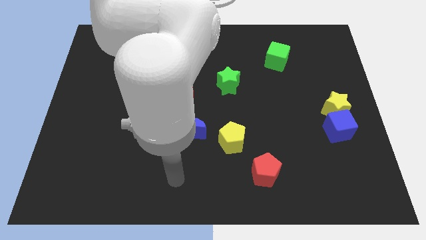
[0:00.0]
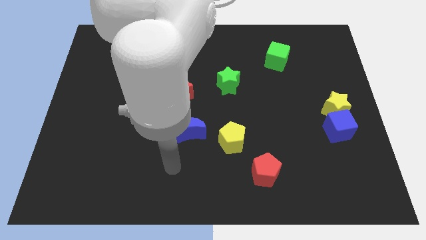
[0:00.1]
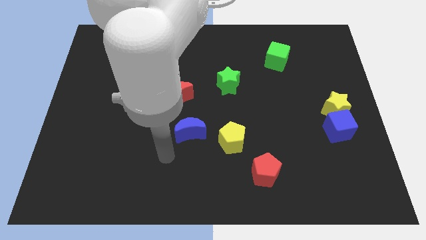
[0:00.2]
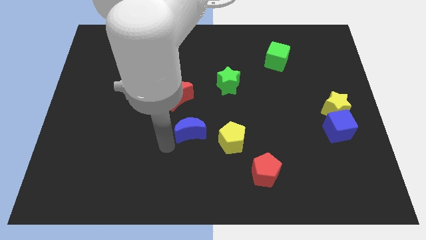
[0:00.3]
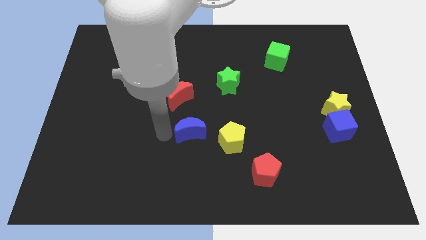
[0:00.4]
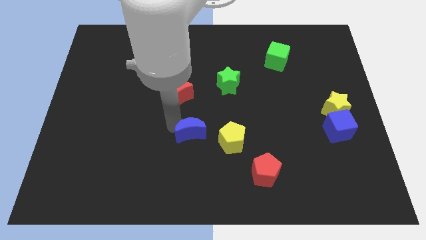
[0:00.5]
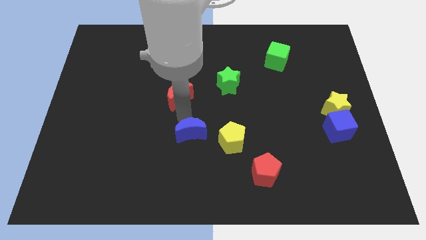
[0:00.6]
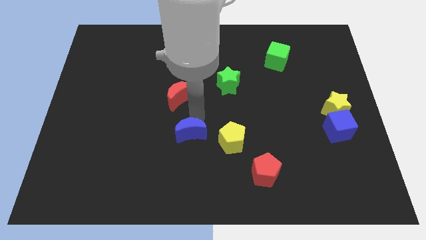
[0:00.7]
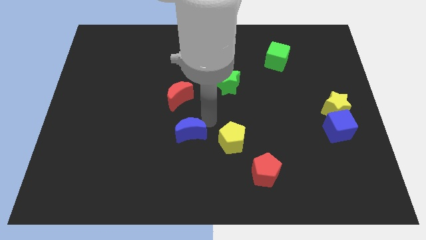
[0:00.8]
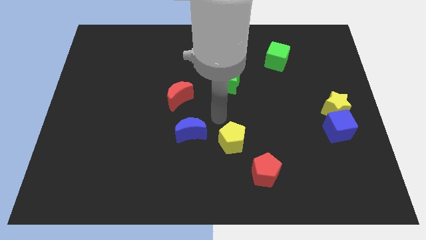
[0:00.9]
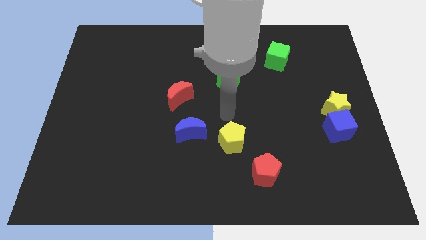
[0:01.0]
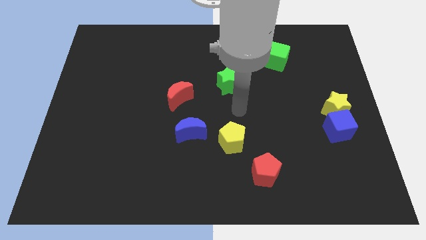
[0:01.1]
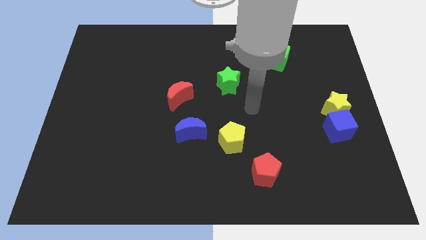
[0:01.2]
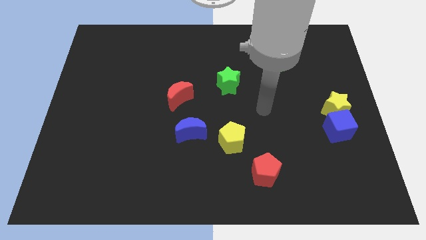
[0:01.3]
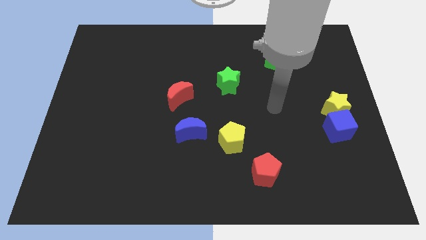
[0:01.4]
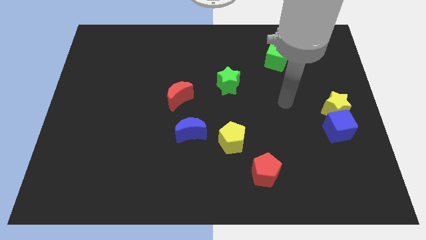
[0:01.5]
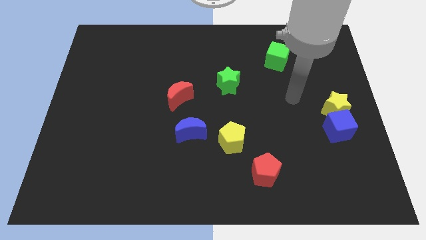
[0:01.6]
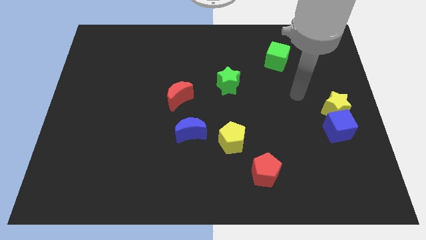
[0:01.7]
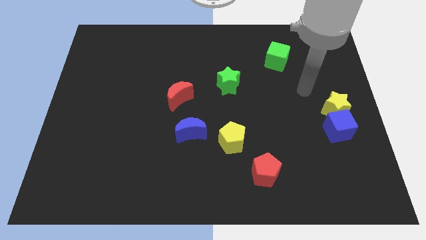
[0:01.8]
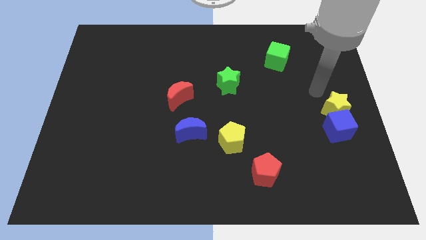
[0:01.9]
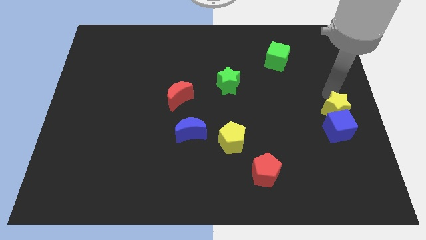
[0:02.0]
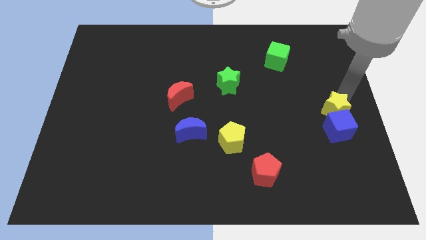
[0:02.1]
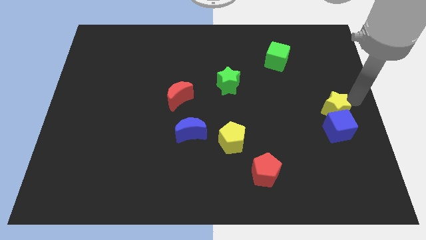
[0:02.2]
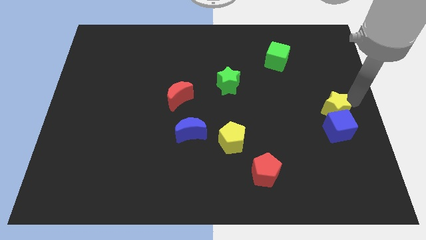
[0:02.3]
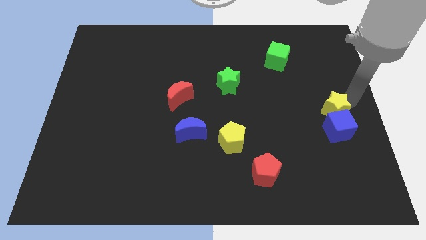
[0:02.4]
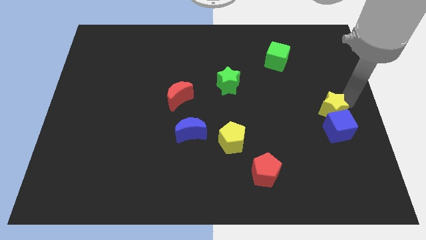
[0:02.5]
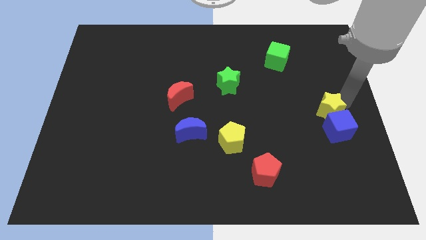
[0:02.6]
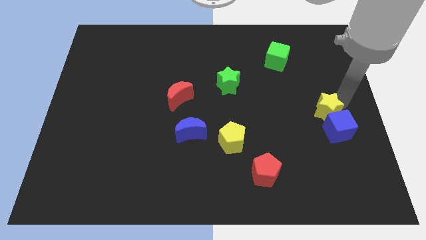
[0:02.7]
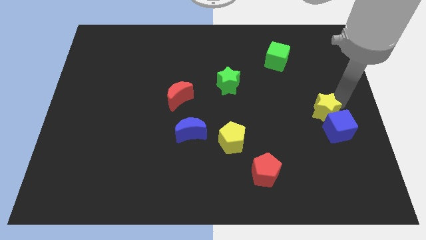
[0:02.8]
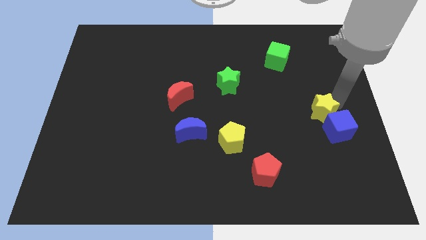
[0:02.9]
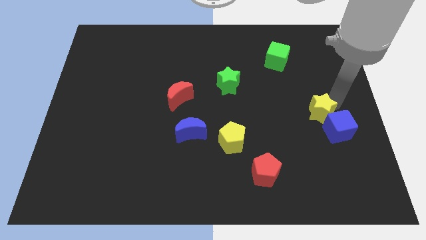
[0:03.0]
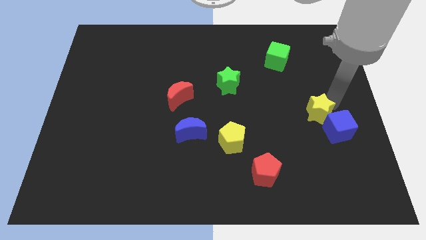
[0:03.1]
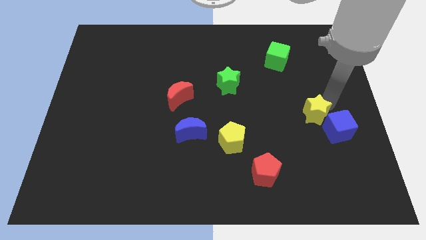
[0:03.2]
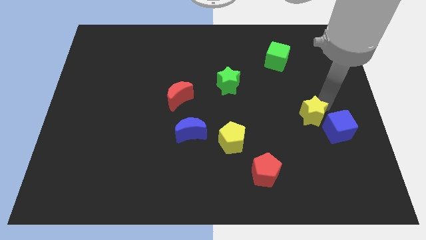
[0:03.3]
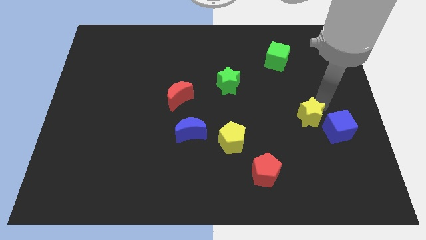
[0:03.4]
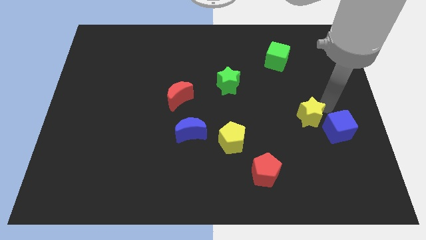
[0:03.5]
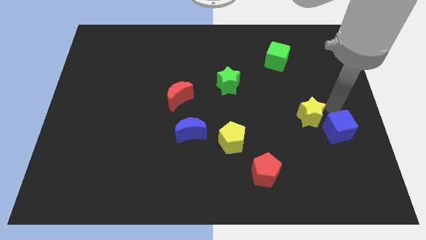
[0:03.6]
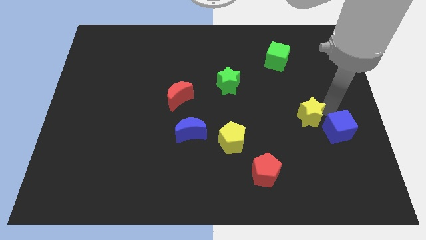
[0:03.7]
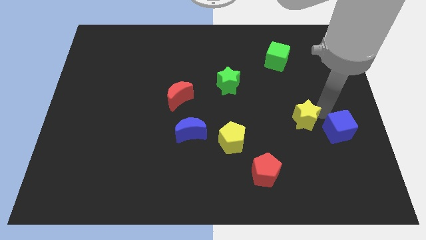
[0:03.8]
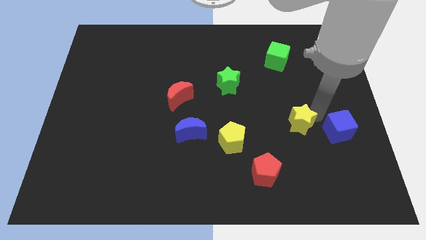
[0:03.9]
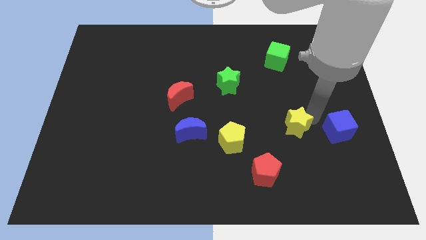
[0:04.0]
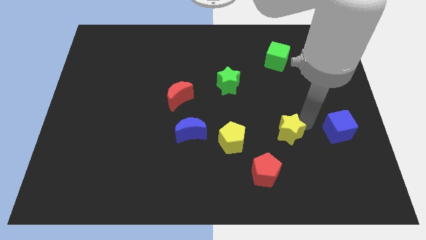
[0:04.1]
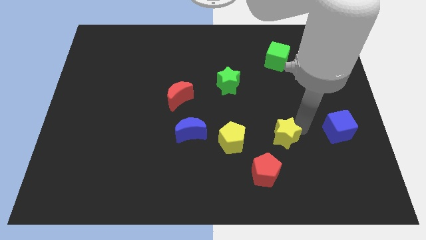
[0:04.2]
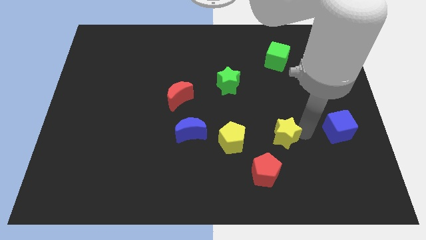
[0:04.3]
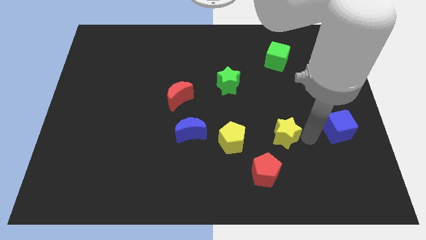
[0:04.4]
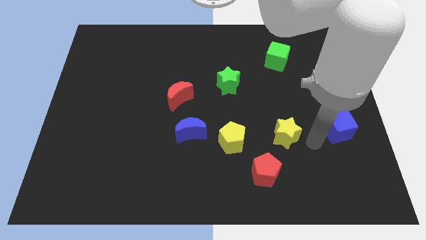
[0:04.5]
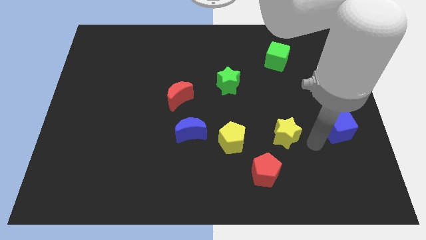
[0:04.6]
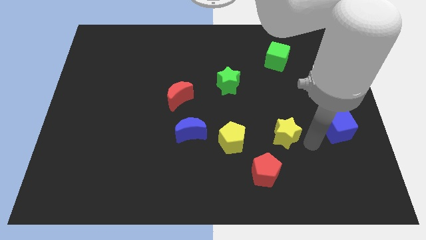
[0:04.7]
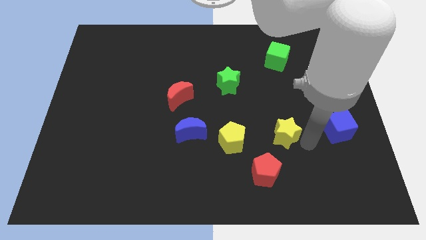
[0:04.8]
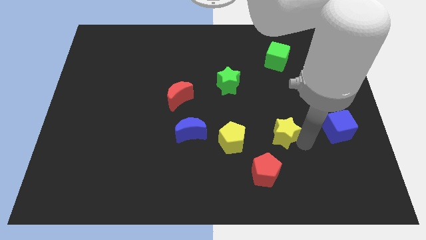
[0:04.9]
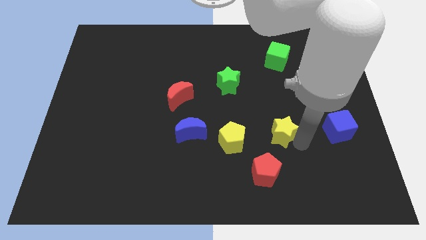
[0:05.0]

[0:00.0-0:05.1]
put the yellow star to the top of the red pentagon

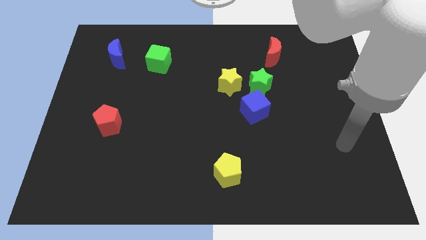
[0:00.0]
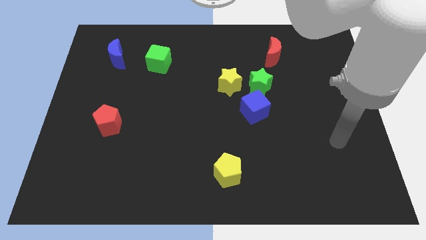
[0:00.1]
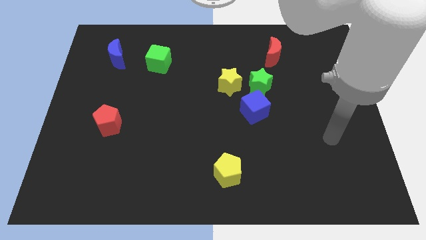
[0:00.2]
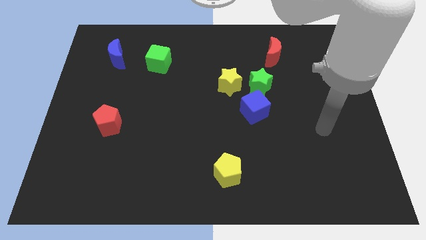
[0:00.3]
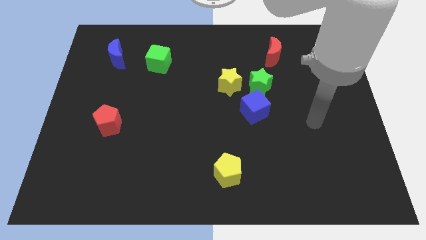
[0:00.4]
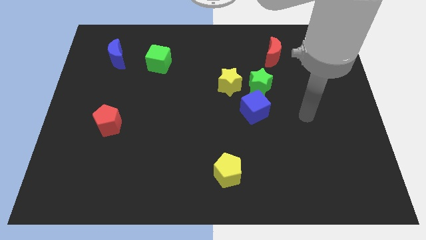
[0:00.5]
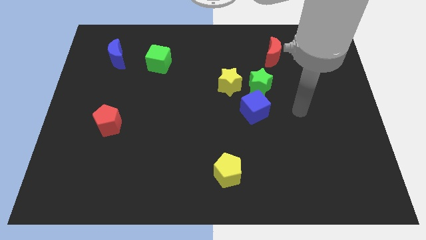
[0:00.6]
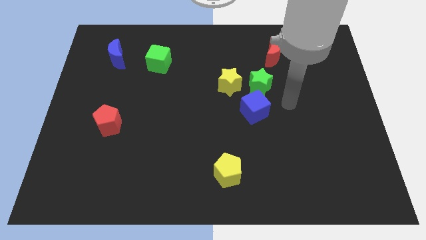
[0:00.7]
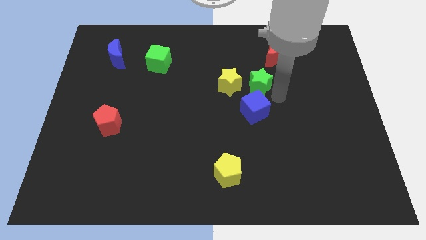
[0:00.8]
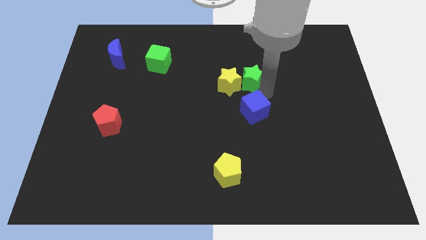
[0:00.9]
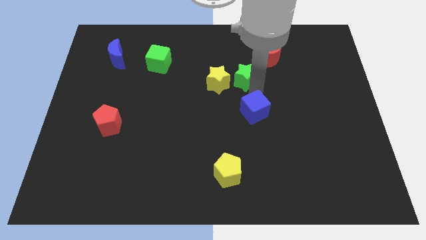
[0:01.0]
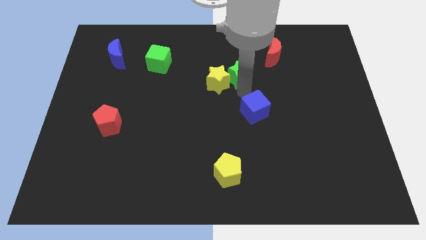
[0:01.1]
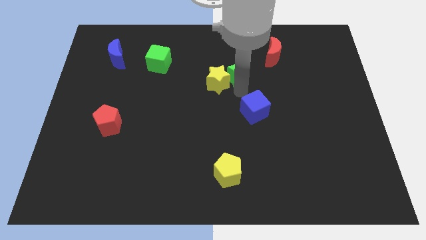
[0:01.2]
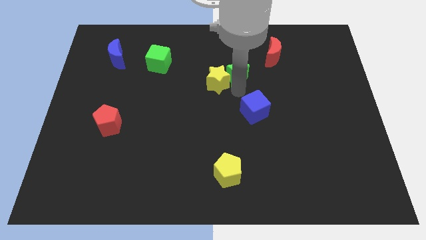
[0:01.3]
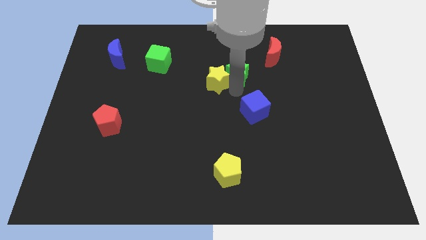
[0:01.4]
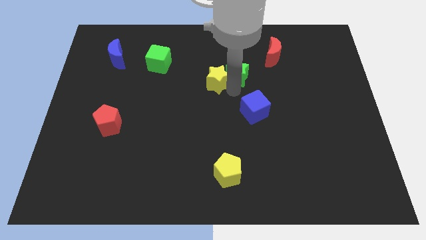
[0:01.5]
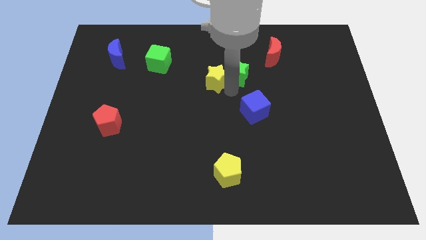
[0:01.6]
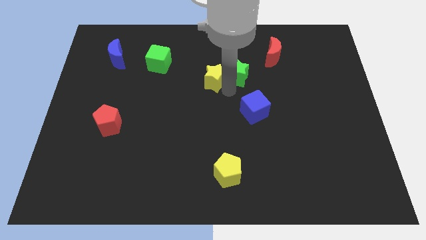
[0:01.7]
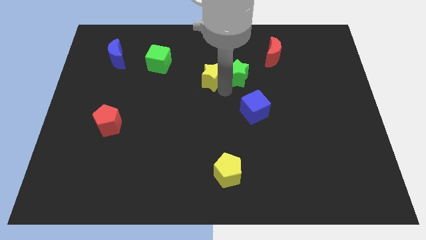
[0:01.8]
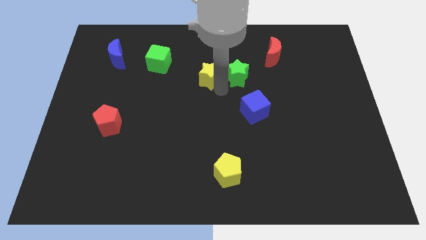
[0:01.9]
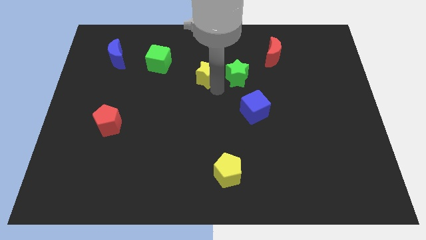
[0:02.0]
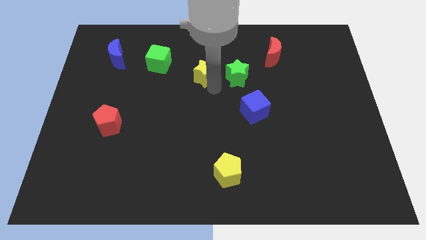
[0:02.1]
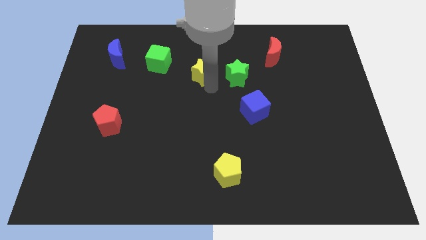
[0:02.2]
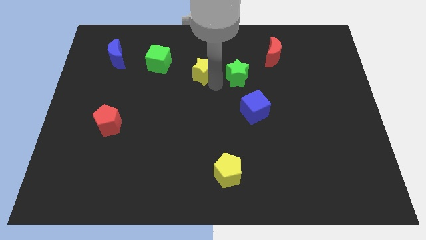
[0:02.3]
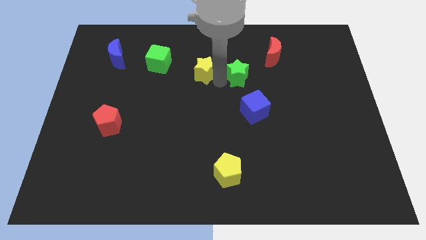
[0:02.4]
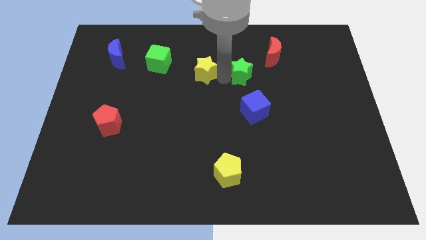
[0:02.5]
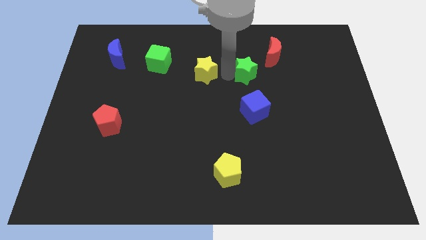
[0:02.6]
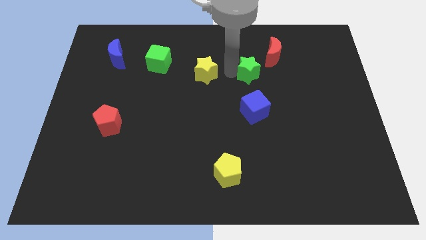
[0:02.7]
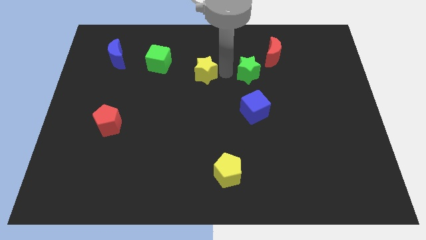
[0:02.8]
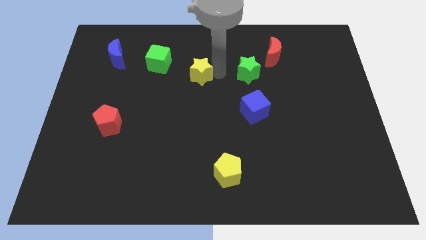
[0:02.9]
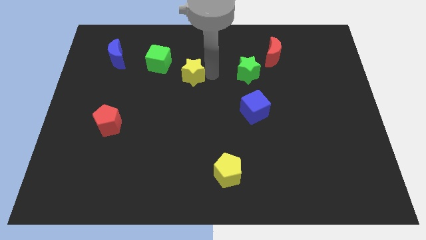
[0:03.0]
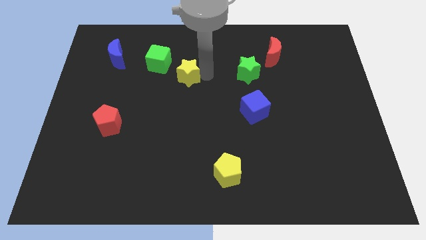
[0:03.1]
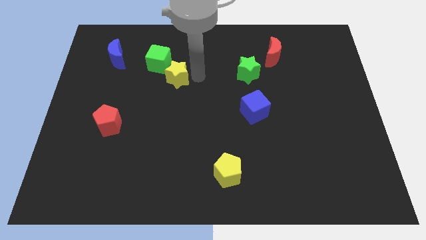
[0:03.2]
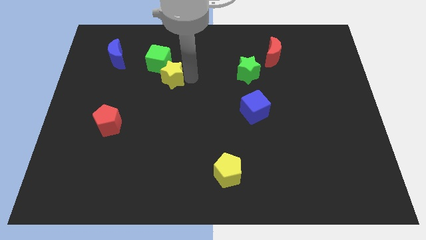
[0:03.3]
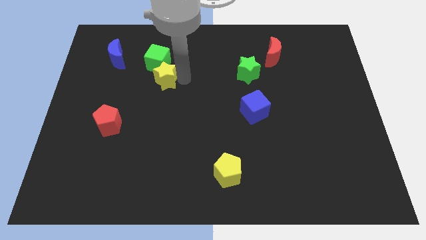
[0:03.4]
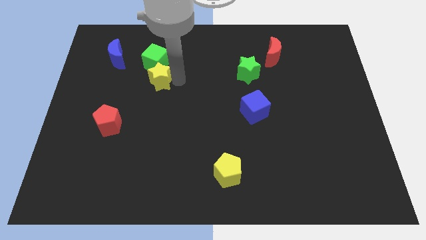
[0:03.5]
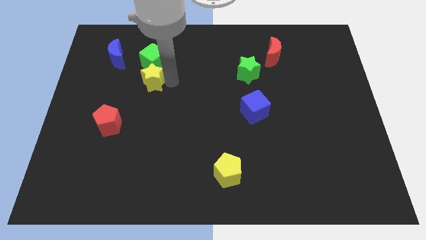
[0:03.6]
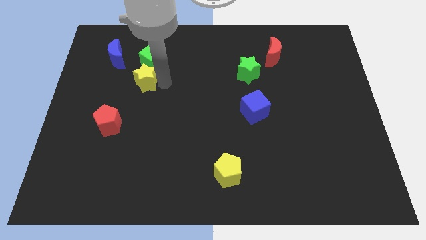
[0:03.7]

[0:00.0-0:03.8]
put the yellow star to the bottom right of the blue moon
